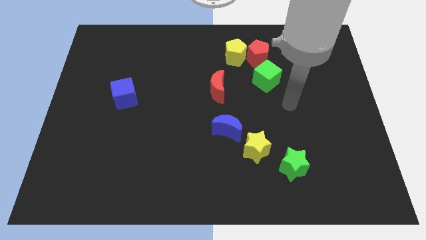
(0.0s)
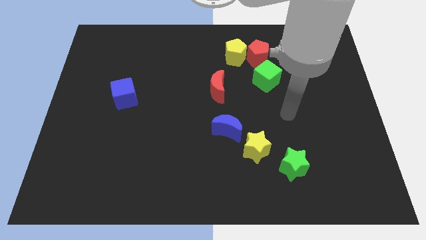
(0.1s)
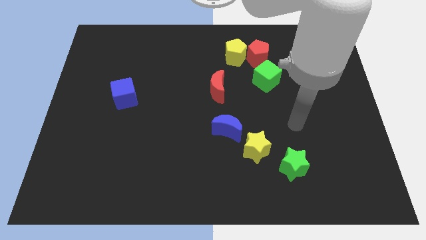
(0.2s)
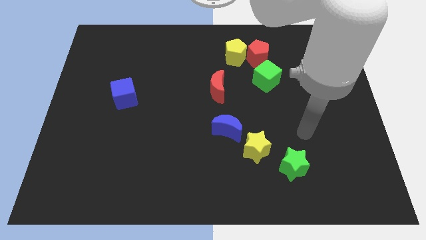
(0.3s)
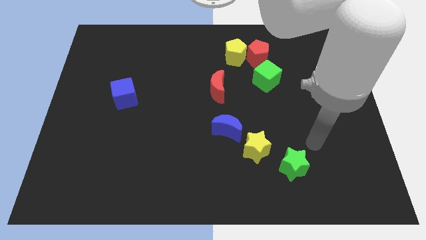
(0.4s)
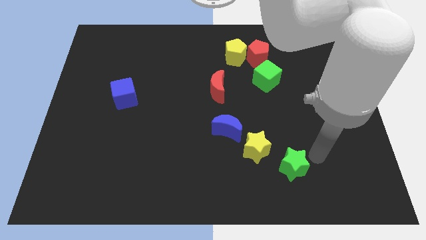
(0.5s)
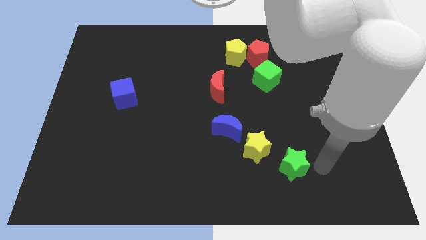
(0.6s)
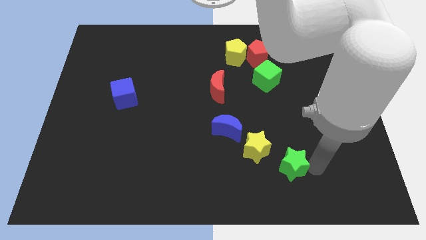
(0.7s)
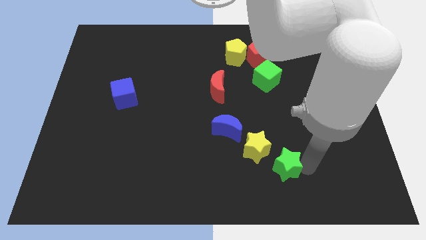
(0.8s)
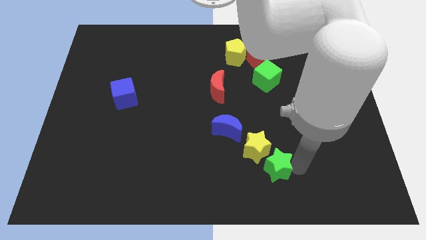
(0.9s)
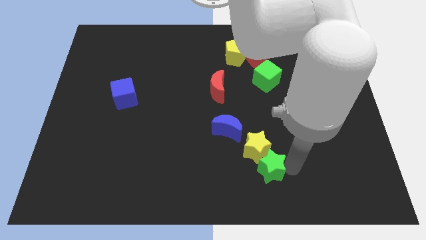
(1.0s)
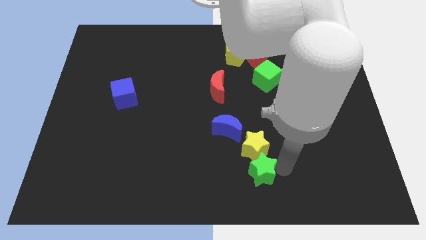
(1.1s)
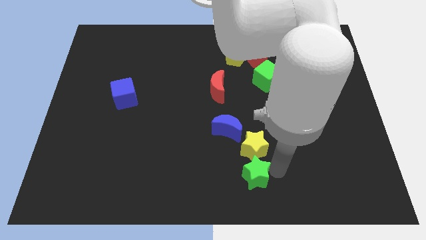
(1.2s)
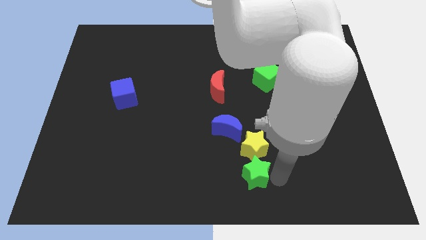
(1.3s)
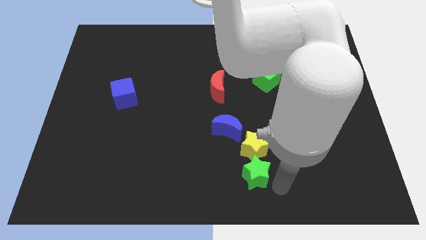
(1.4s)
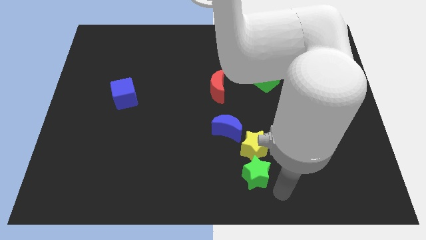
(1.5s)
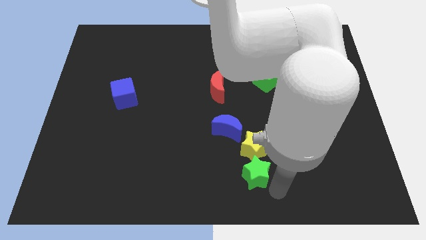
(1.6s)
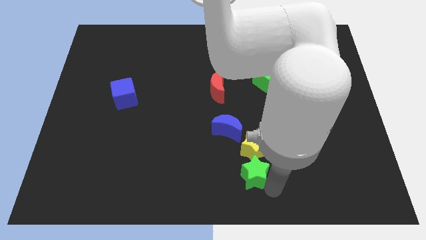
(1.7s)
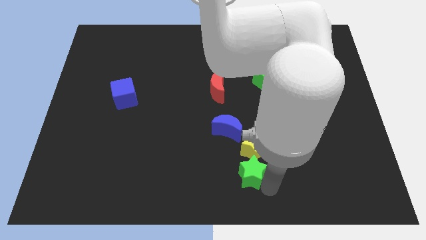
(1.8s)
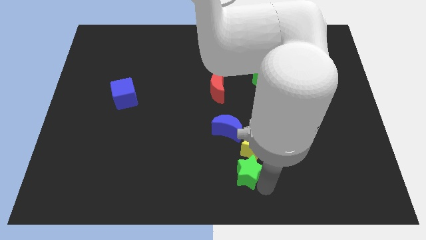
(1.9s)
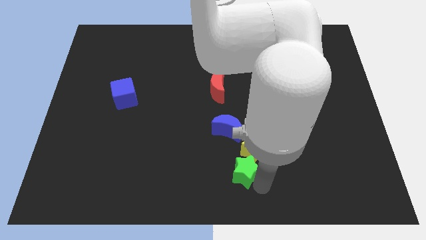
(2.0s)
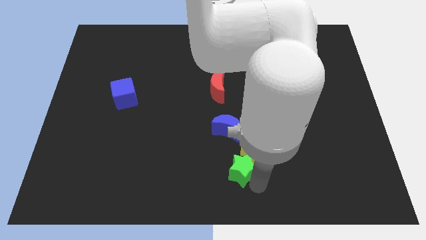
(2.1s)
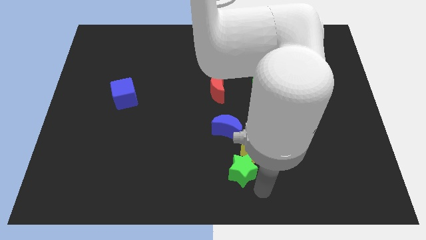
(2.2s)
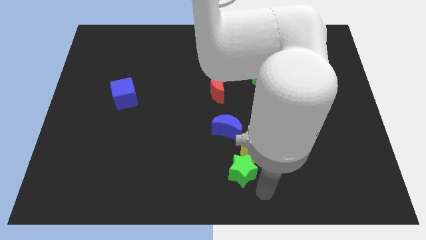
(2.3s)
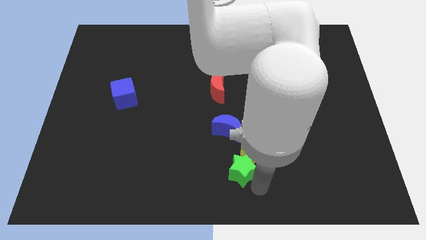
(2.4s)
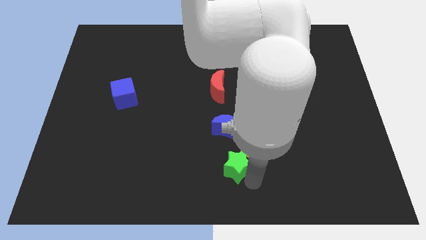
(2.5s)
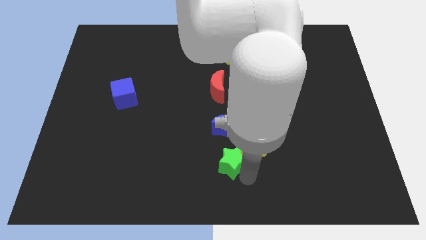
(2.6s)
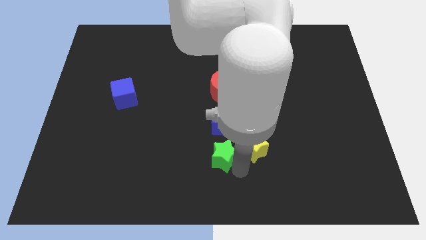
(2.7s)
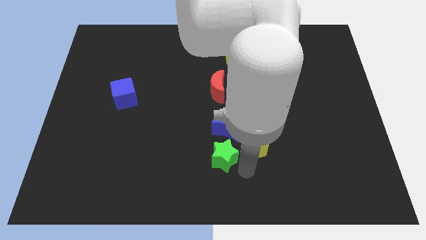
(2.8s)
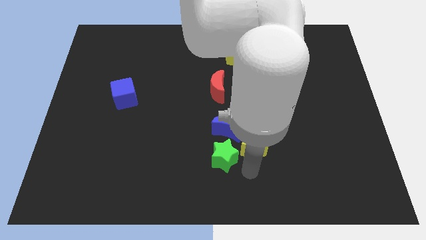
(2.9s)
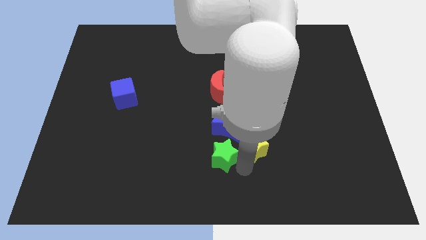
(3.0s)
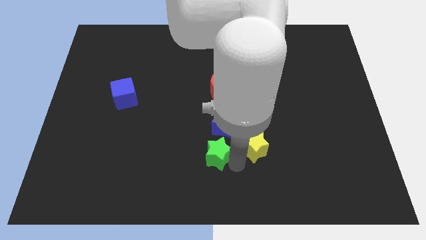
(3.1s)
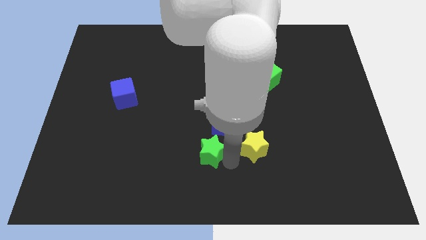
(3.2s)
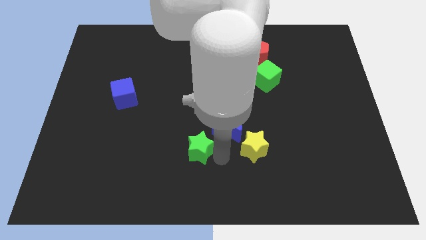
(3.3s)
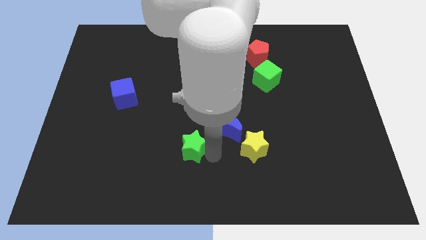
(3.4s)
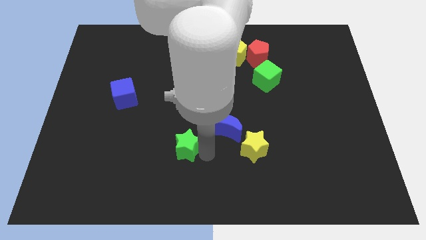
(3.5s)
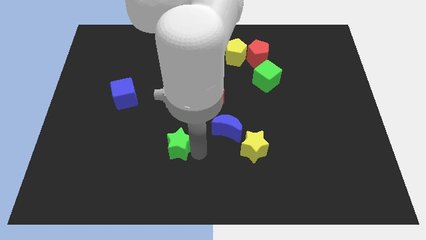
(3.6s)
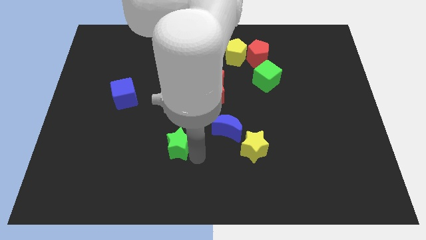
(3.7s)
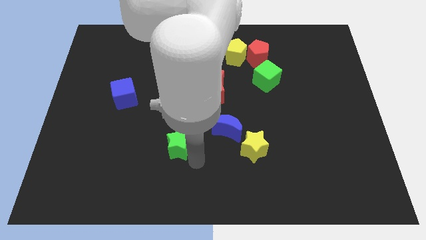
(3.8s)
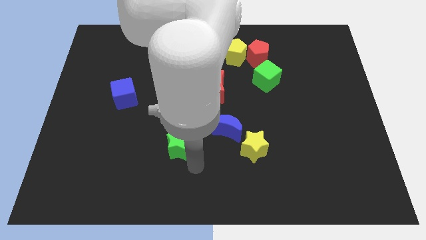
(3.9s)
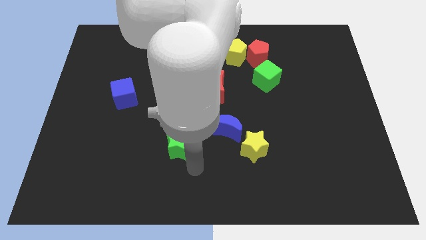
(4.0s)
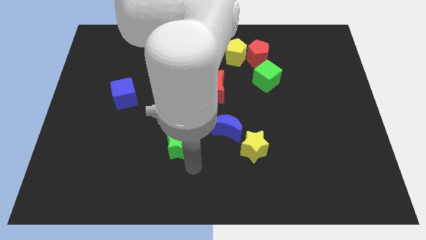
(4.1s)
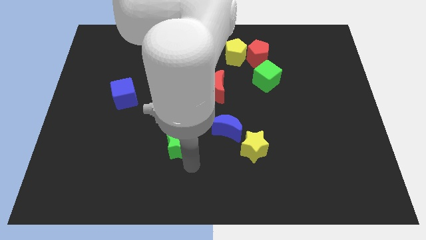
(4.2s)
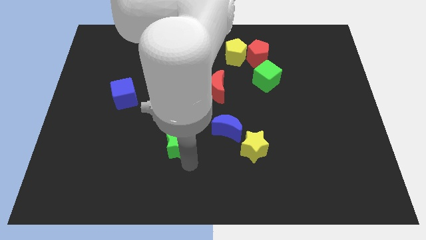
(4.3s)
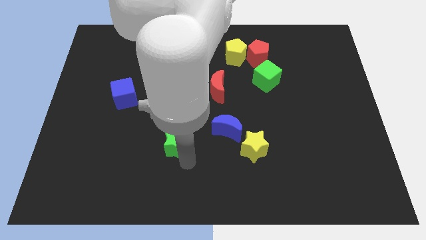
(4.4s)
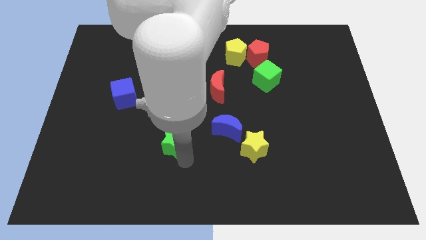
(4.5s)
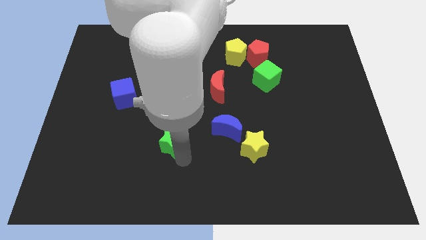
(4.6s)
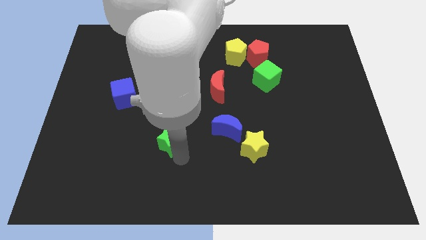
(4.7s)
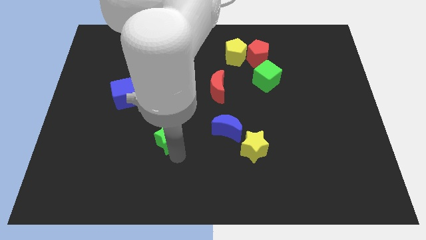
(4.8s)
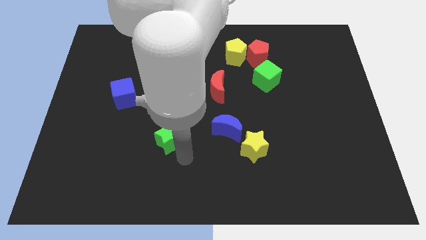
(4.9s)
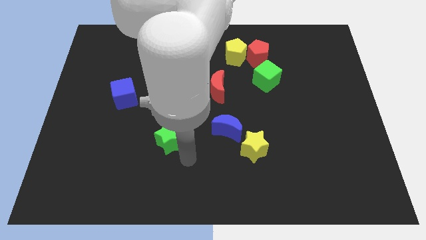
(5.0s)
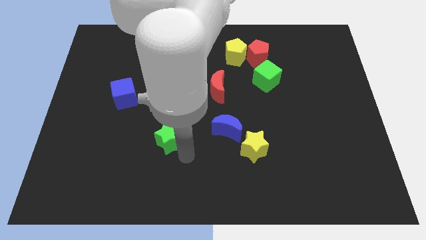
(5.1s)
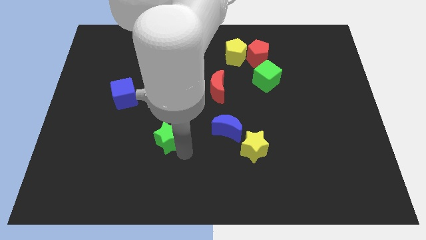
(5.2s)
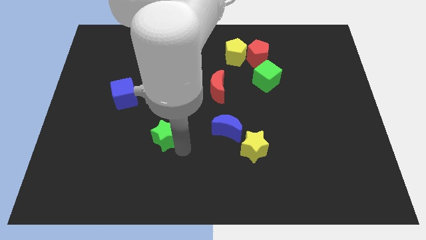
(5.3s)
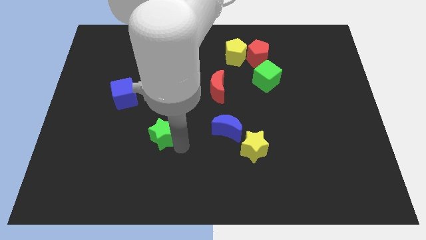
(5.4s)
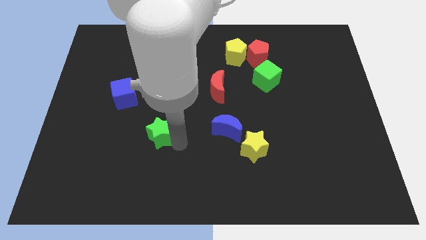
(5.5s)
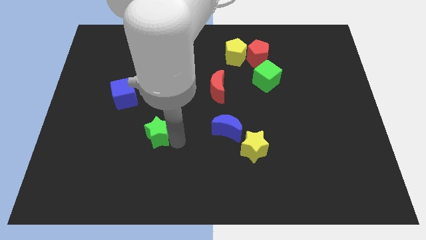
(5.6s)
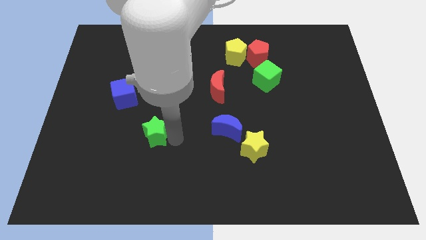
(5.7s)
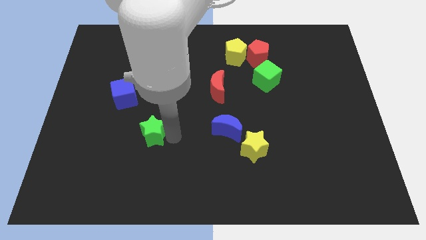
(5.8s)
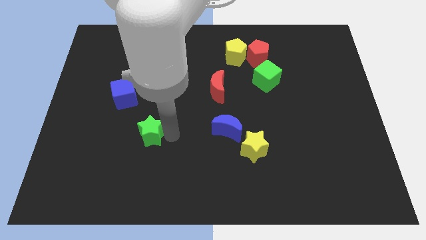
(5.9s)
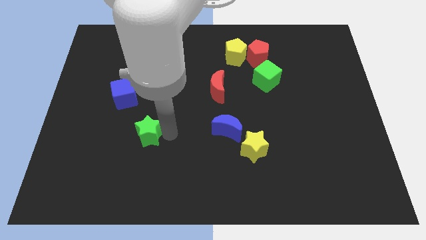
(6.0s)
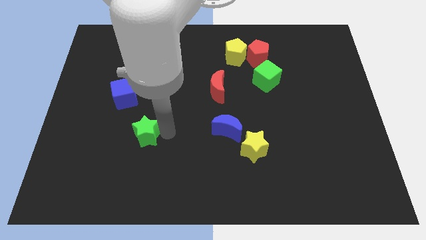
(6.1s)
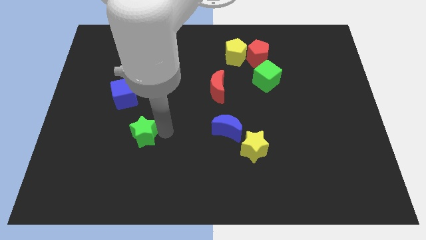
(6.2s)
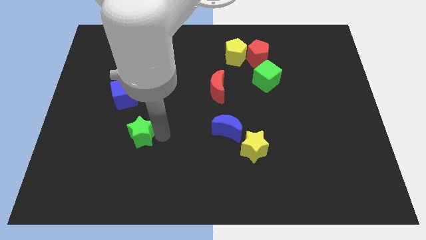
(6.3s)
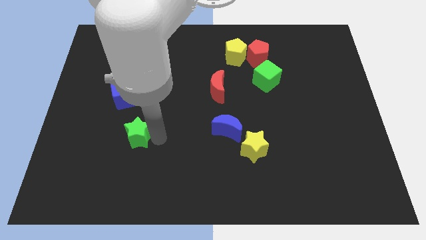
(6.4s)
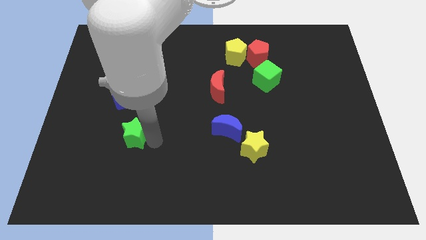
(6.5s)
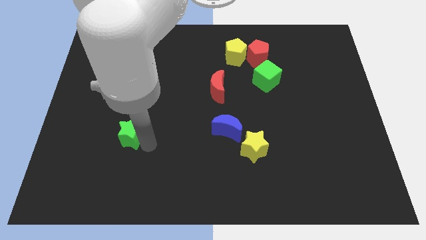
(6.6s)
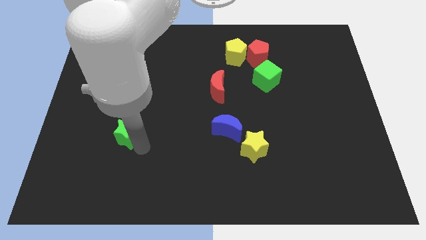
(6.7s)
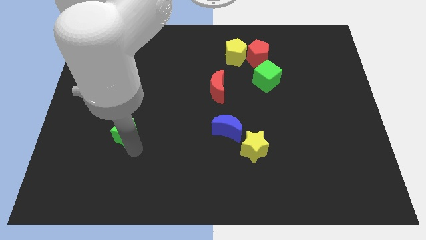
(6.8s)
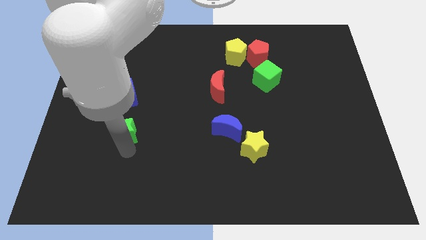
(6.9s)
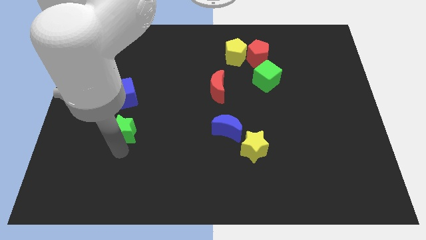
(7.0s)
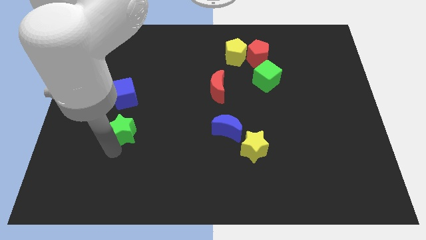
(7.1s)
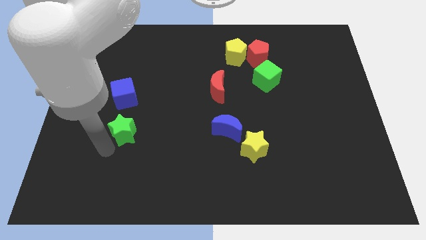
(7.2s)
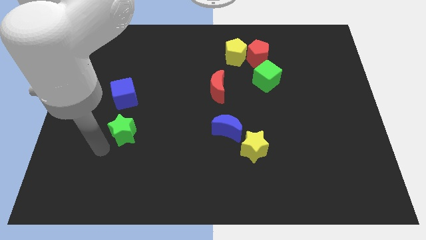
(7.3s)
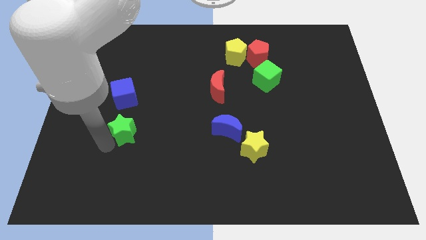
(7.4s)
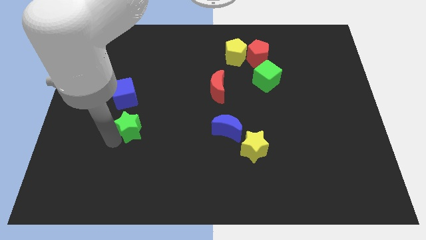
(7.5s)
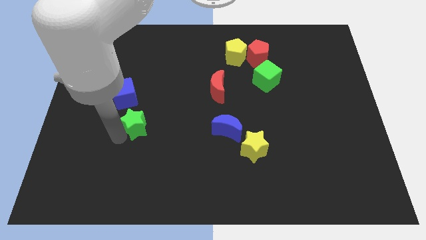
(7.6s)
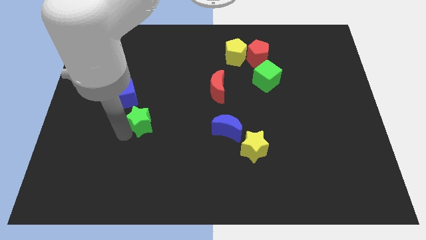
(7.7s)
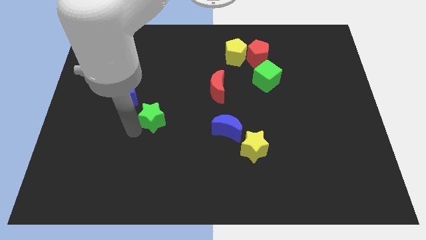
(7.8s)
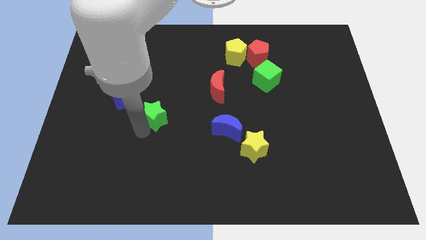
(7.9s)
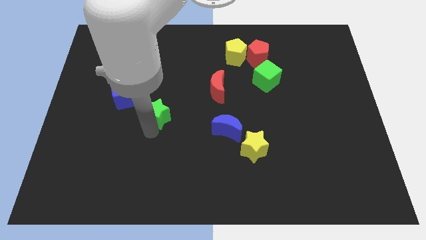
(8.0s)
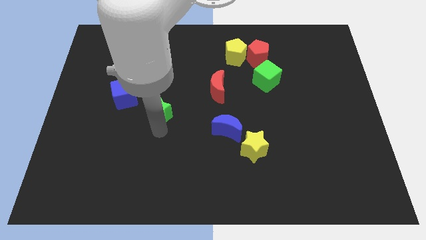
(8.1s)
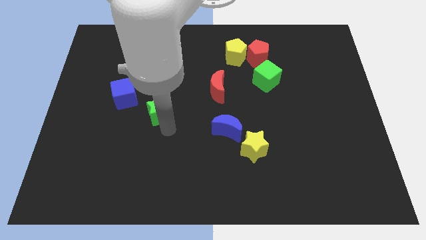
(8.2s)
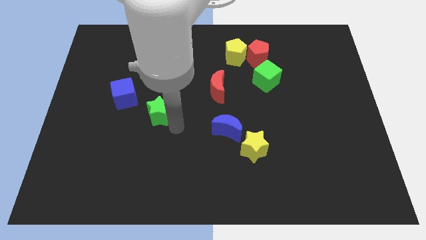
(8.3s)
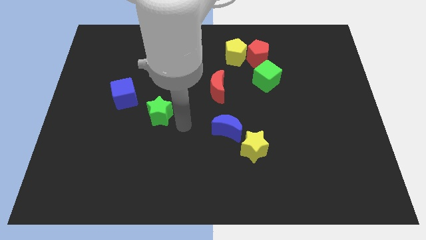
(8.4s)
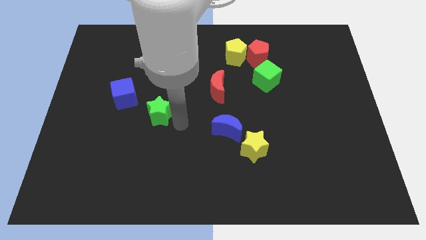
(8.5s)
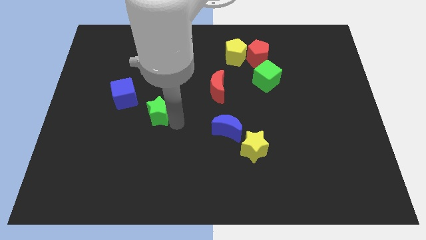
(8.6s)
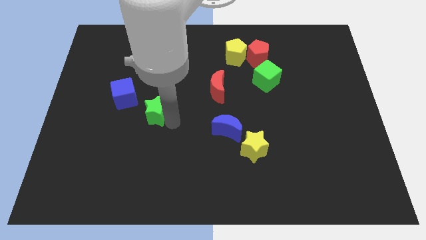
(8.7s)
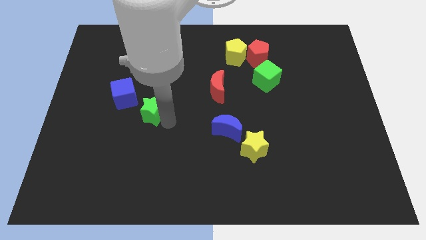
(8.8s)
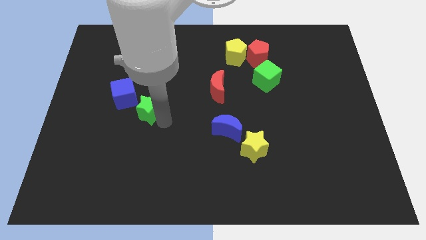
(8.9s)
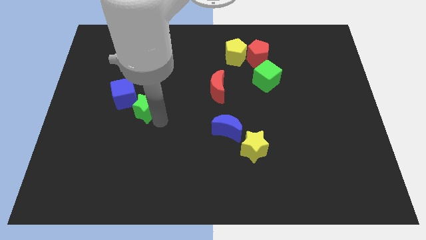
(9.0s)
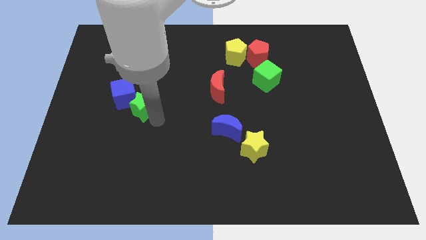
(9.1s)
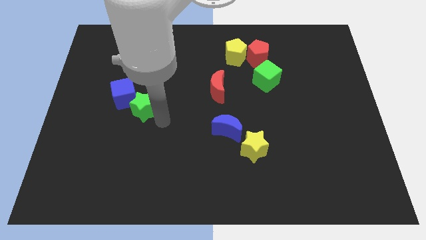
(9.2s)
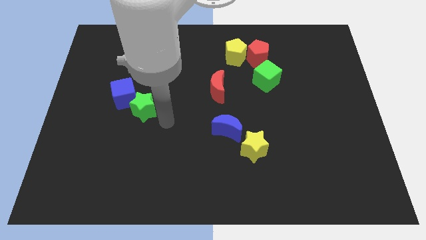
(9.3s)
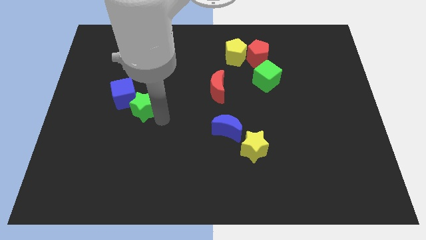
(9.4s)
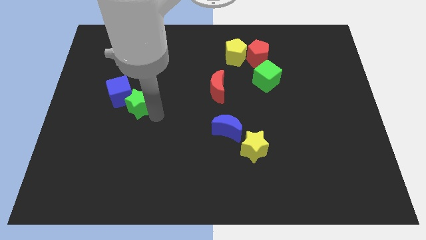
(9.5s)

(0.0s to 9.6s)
put the green star next to the blue cube
